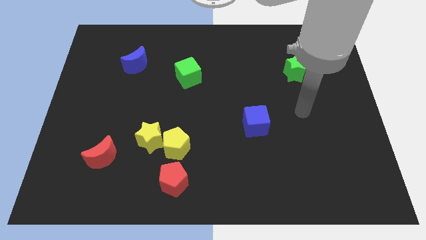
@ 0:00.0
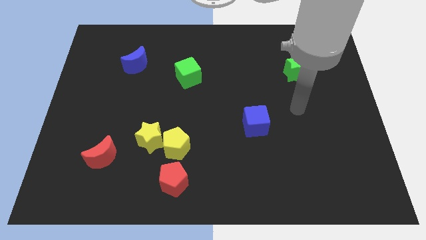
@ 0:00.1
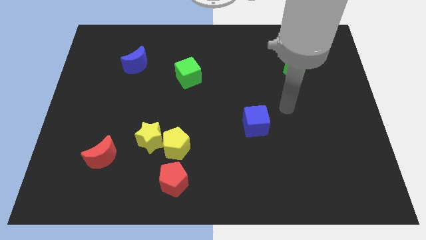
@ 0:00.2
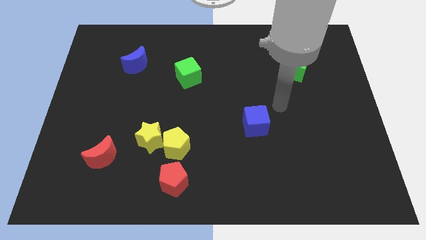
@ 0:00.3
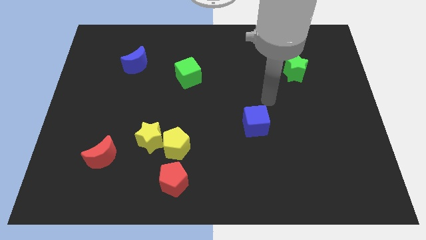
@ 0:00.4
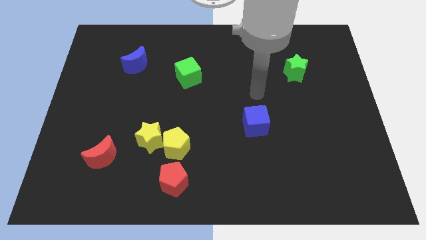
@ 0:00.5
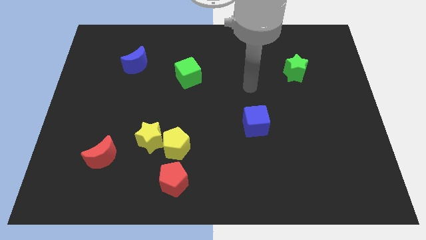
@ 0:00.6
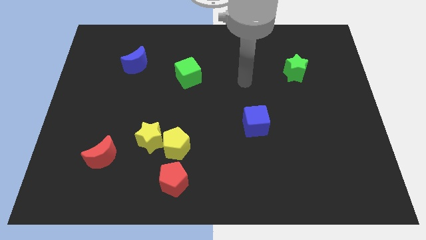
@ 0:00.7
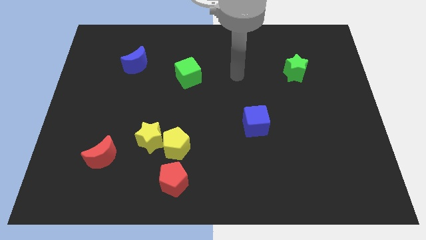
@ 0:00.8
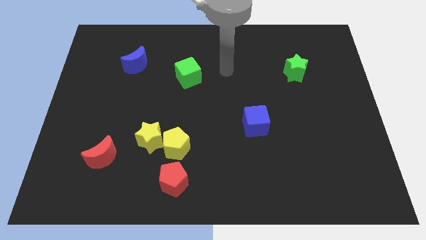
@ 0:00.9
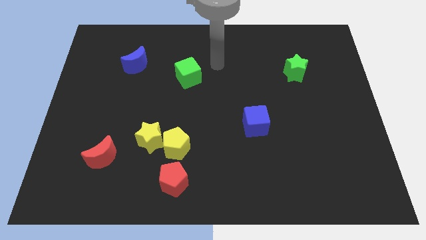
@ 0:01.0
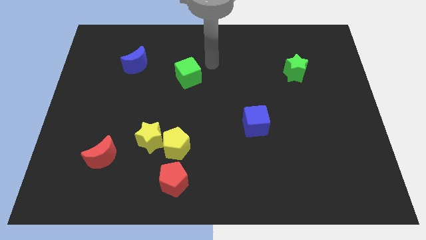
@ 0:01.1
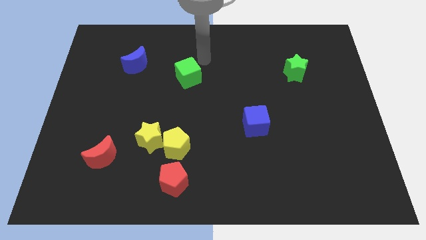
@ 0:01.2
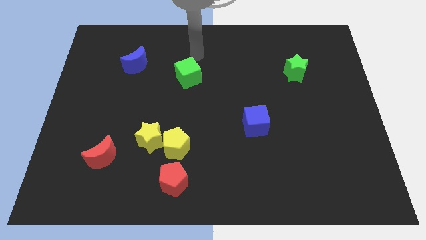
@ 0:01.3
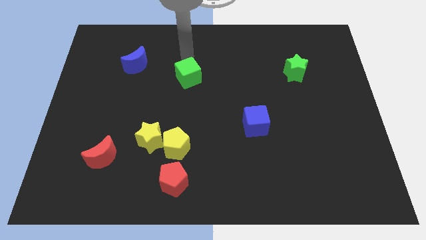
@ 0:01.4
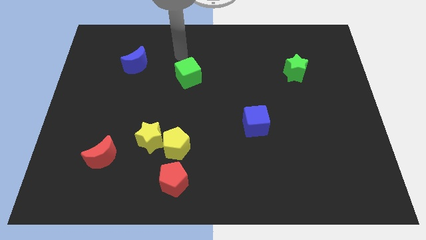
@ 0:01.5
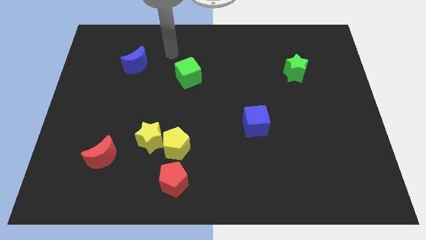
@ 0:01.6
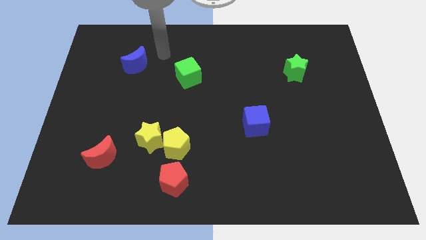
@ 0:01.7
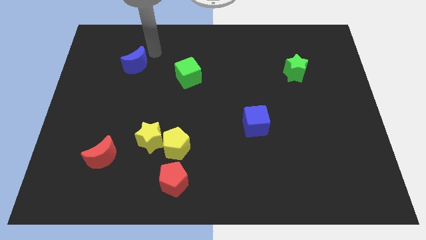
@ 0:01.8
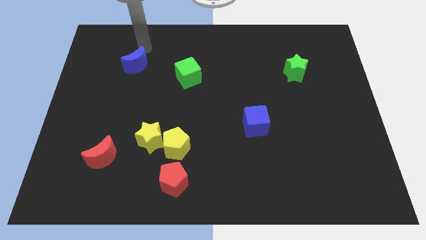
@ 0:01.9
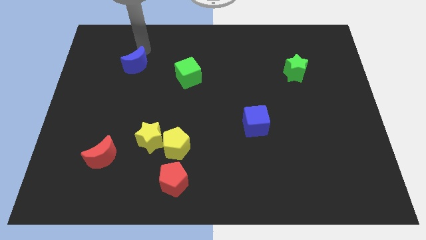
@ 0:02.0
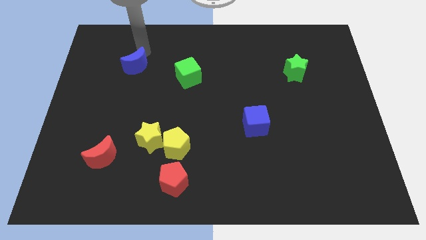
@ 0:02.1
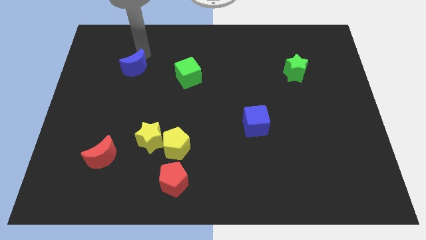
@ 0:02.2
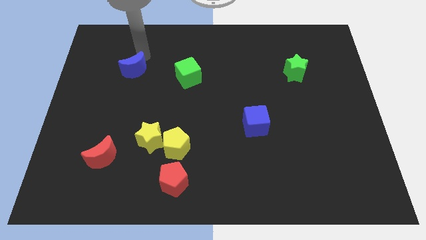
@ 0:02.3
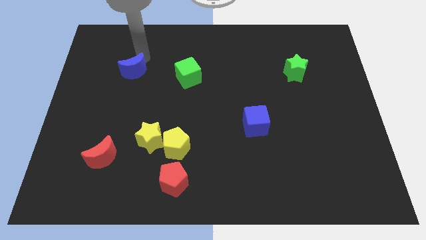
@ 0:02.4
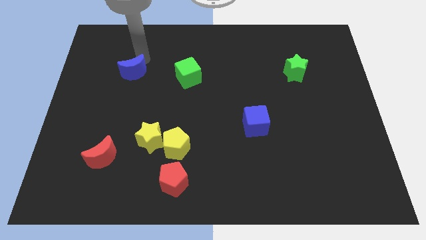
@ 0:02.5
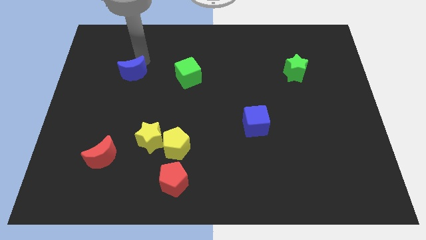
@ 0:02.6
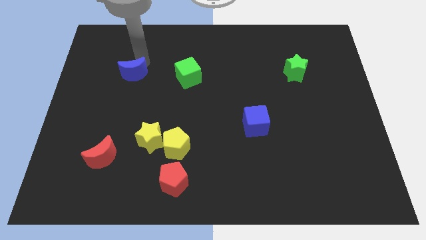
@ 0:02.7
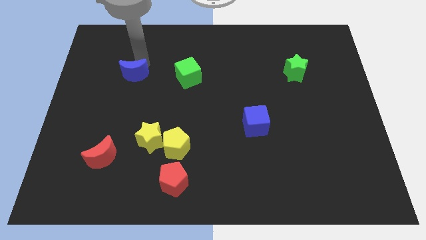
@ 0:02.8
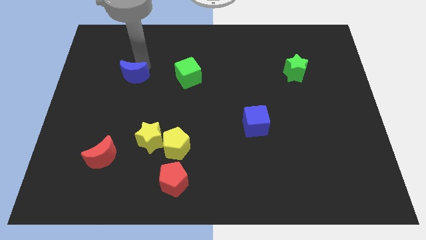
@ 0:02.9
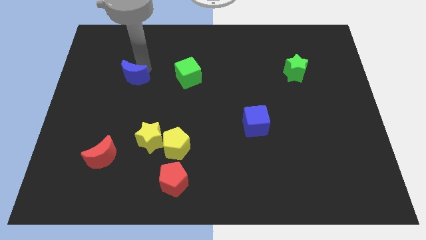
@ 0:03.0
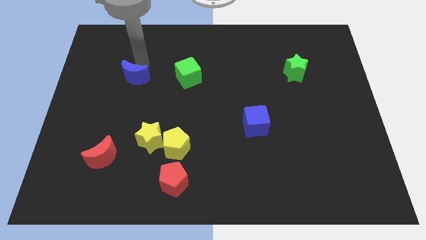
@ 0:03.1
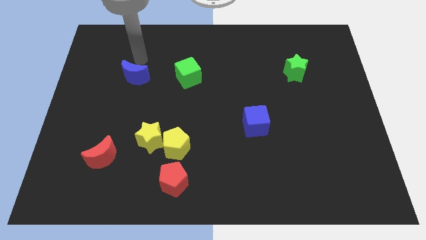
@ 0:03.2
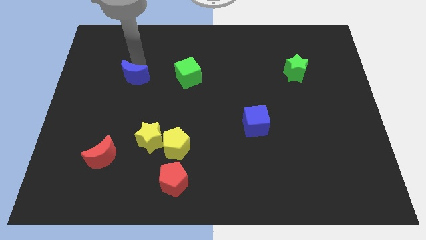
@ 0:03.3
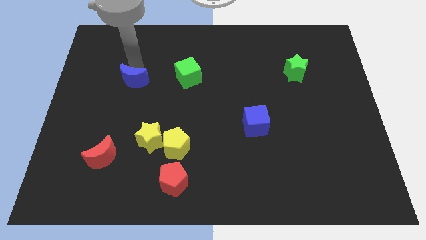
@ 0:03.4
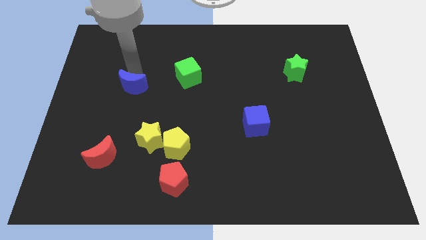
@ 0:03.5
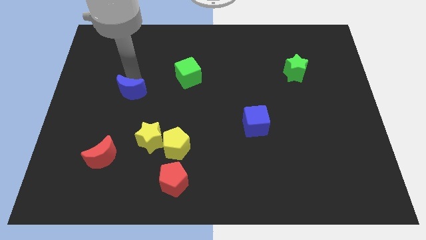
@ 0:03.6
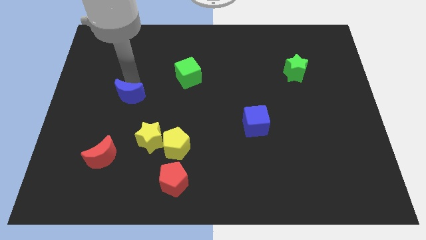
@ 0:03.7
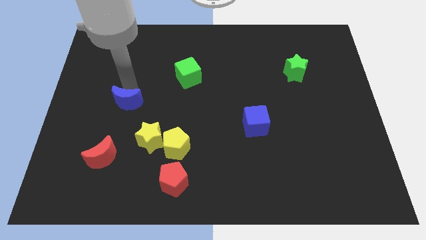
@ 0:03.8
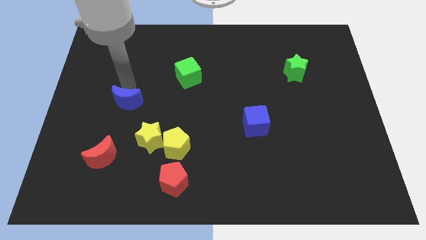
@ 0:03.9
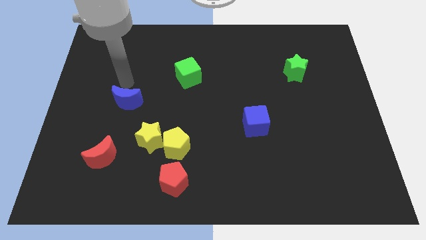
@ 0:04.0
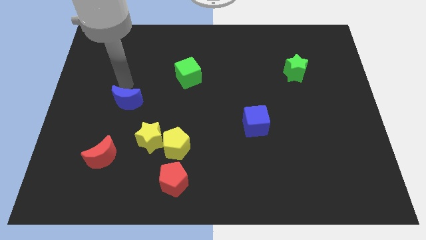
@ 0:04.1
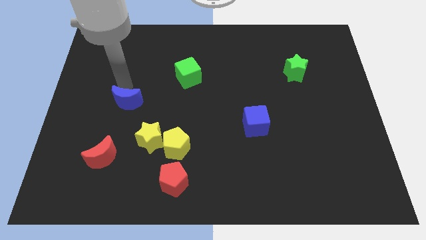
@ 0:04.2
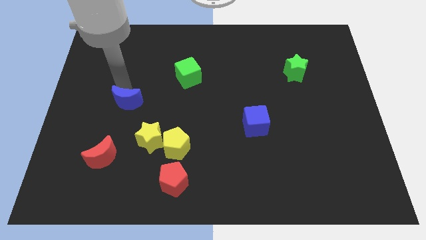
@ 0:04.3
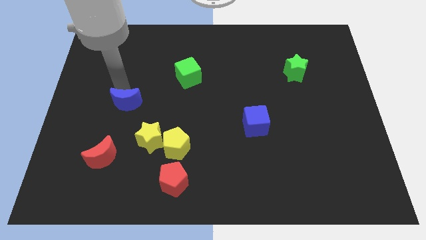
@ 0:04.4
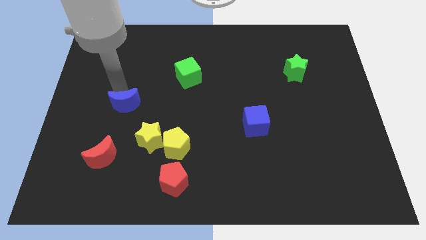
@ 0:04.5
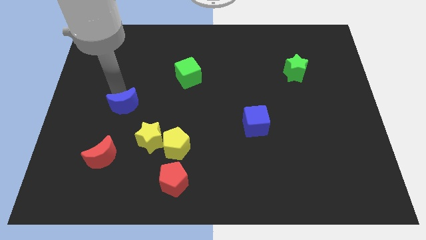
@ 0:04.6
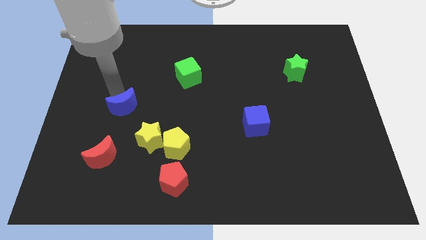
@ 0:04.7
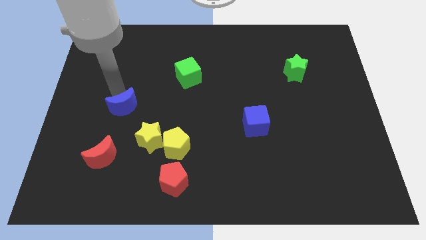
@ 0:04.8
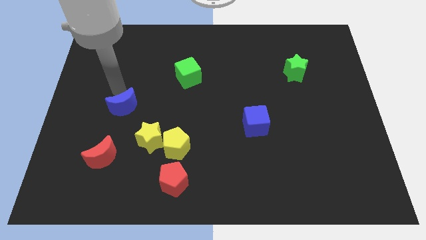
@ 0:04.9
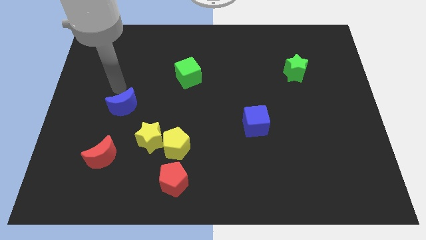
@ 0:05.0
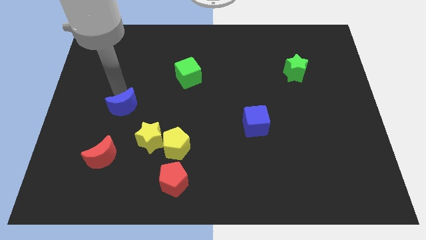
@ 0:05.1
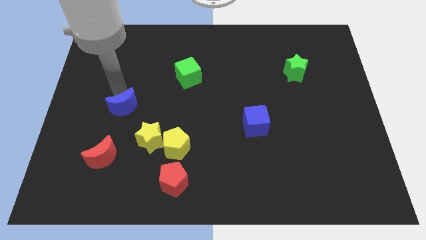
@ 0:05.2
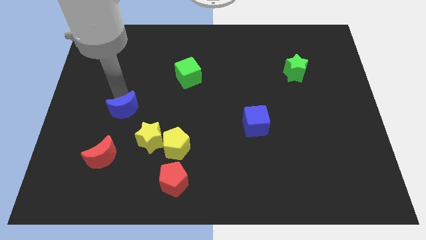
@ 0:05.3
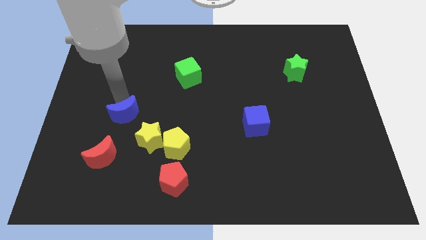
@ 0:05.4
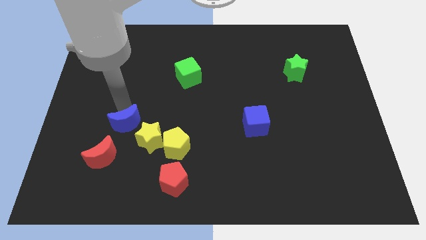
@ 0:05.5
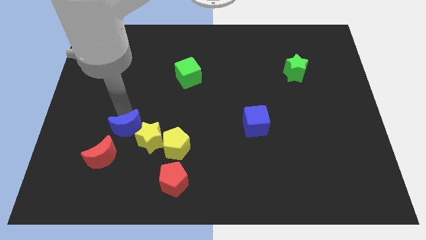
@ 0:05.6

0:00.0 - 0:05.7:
slide the blue moon down

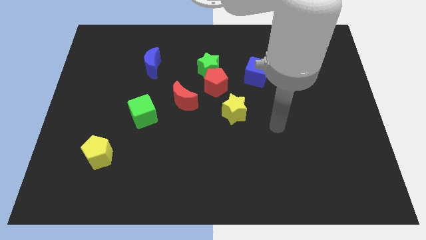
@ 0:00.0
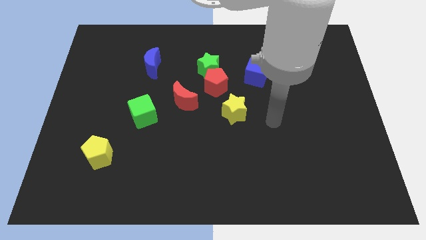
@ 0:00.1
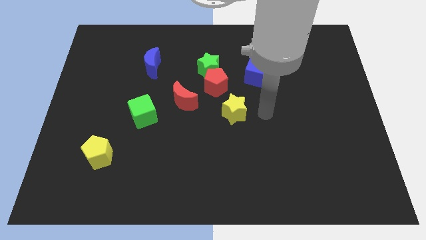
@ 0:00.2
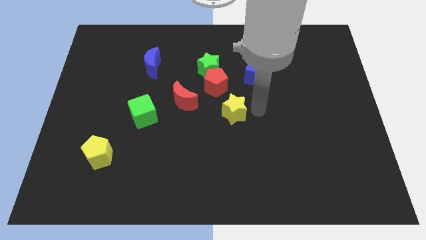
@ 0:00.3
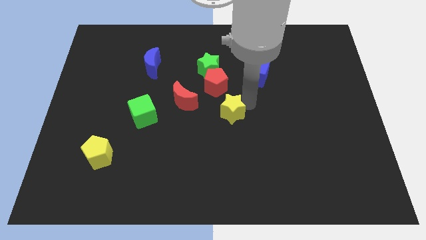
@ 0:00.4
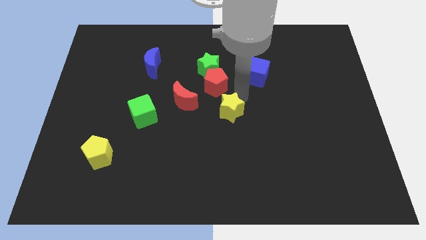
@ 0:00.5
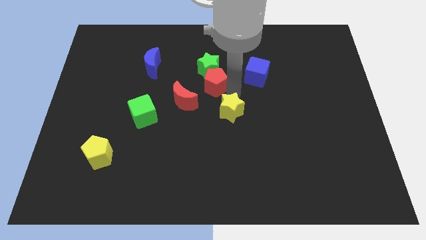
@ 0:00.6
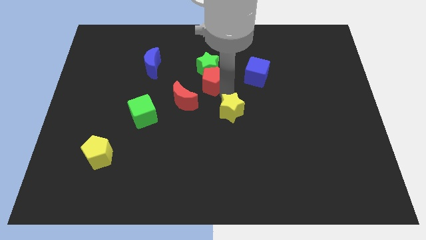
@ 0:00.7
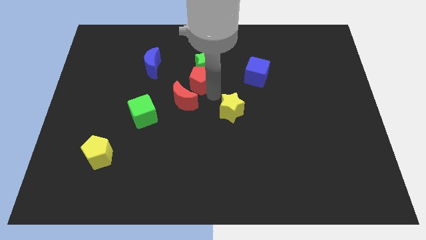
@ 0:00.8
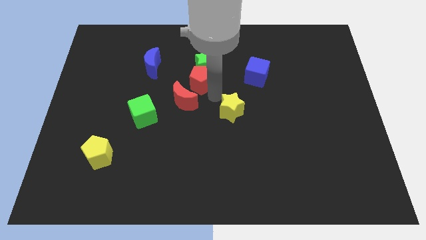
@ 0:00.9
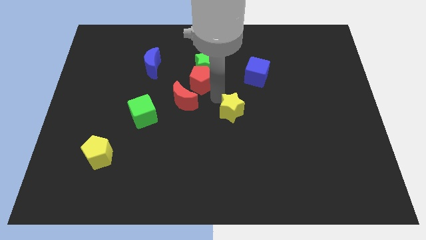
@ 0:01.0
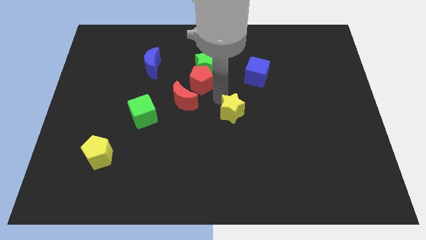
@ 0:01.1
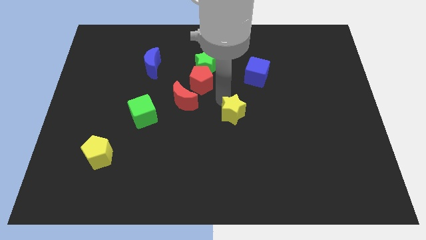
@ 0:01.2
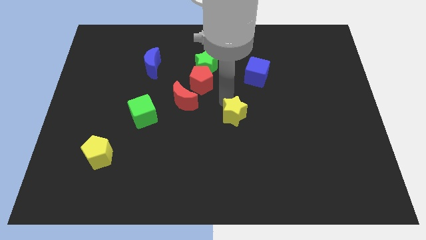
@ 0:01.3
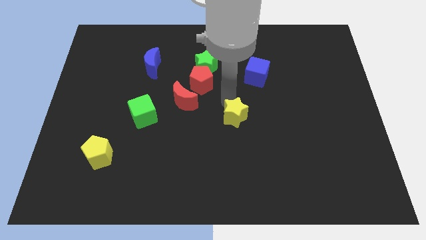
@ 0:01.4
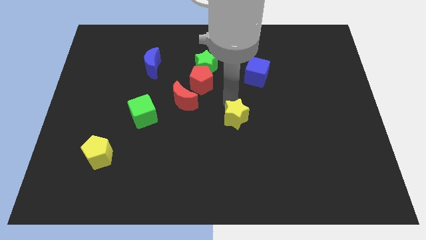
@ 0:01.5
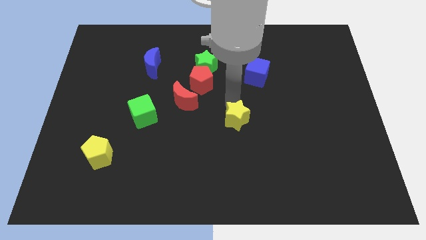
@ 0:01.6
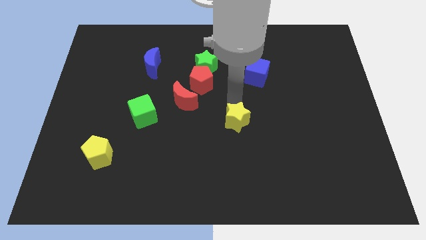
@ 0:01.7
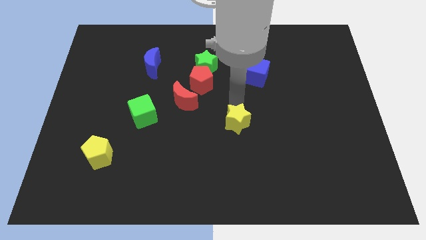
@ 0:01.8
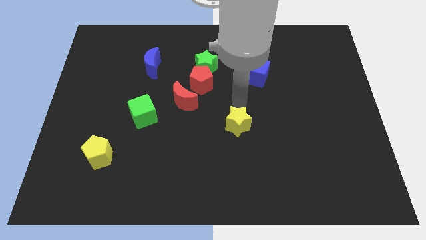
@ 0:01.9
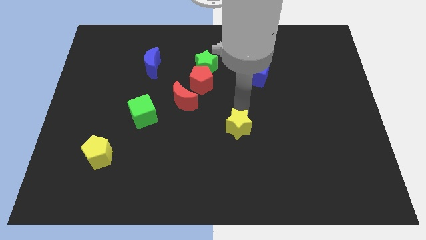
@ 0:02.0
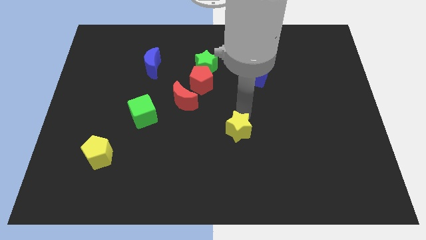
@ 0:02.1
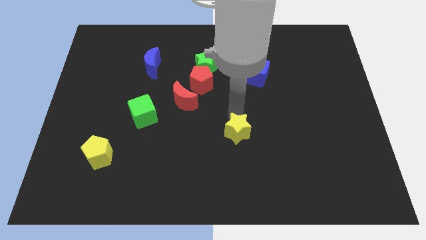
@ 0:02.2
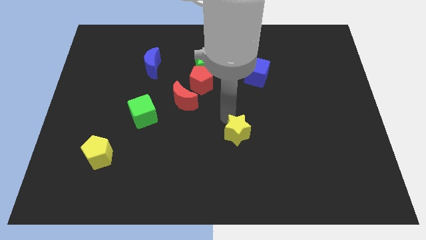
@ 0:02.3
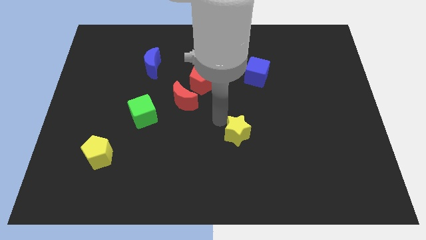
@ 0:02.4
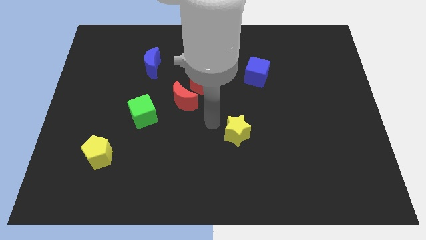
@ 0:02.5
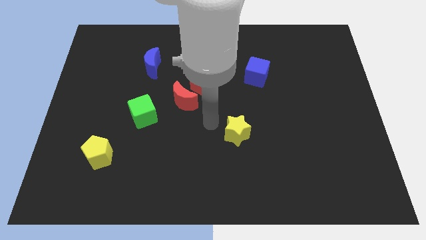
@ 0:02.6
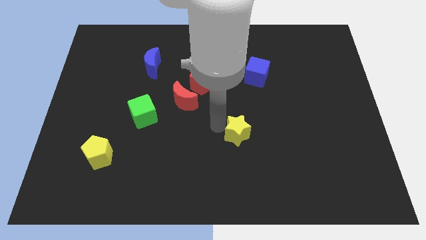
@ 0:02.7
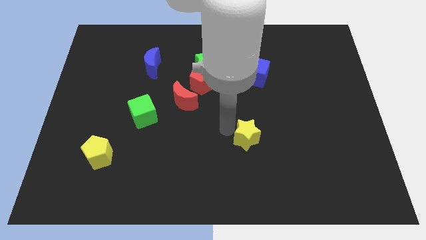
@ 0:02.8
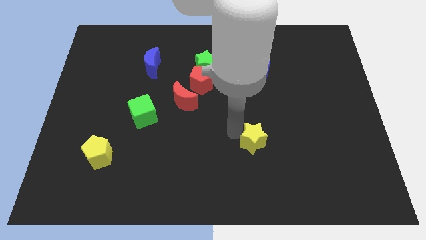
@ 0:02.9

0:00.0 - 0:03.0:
move the yellow star somewhat downwards and then to the right
